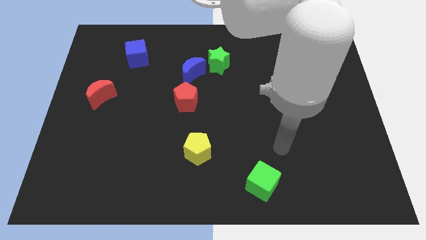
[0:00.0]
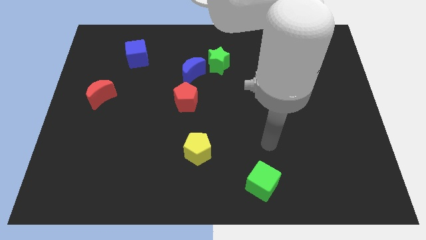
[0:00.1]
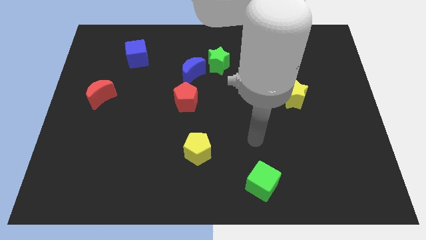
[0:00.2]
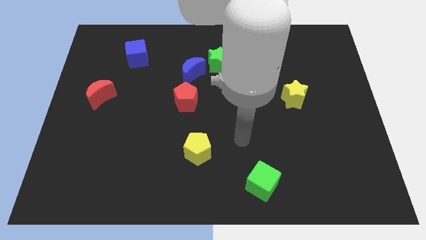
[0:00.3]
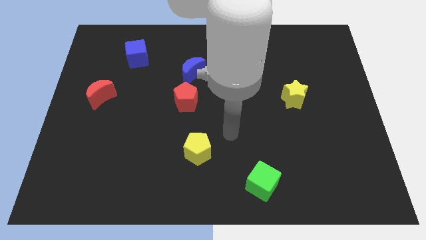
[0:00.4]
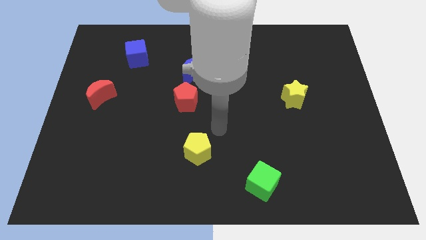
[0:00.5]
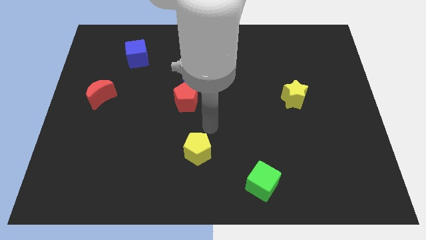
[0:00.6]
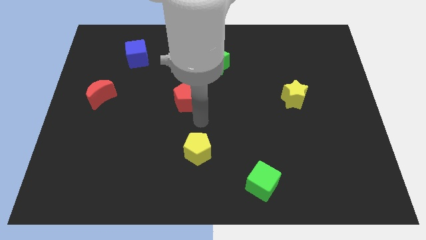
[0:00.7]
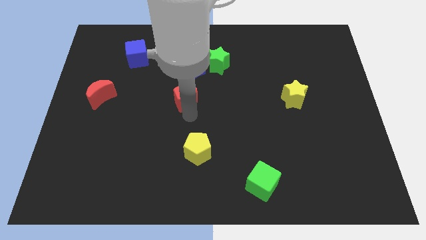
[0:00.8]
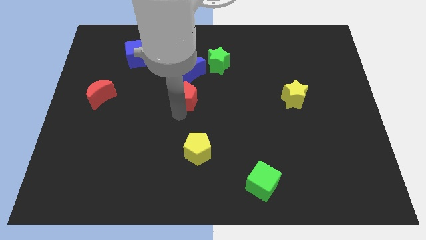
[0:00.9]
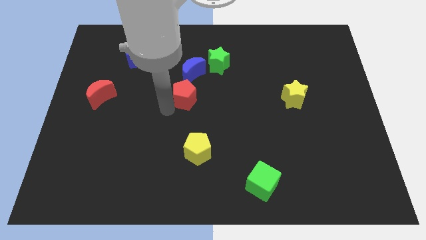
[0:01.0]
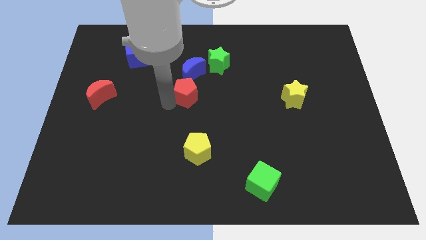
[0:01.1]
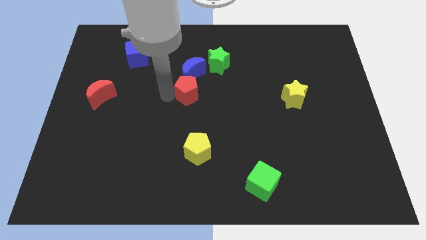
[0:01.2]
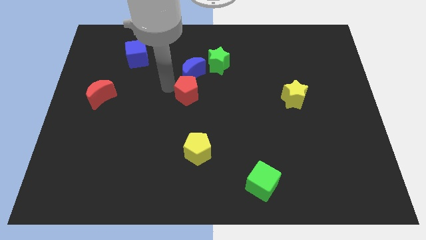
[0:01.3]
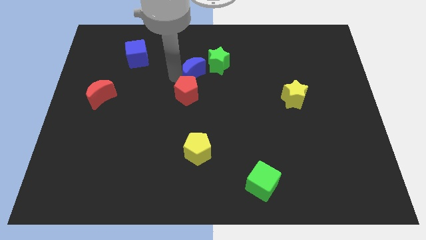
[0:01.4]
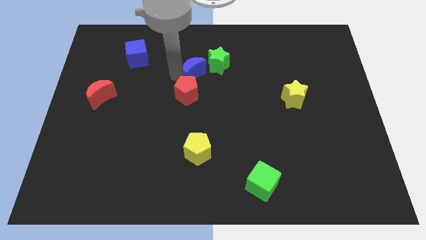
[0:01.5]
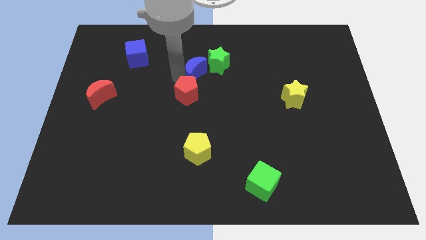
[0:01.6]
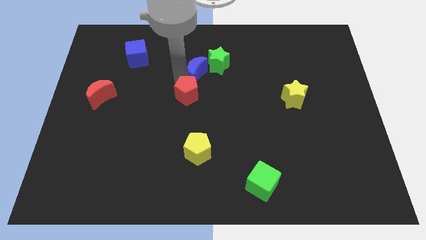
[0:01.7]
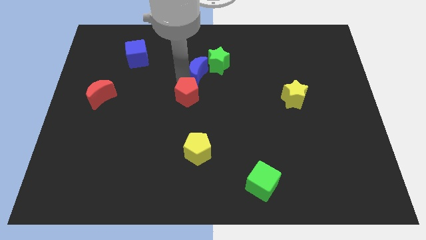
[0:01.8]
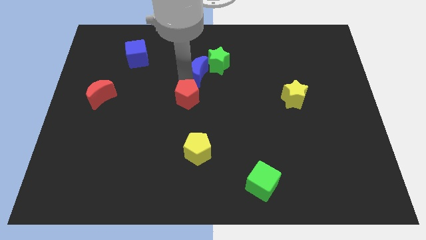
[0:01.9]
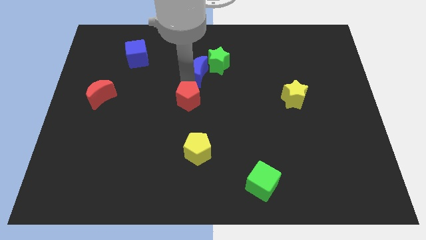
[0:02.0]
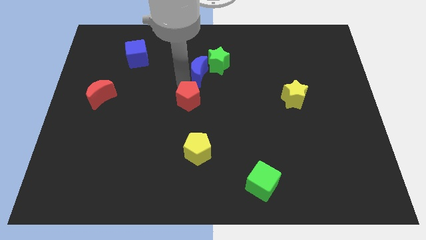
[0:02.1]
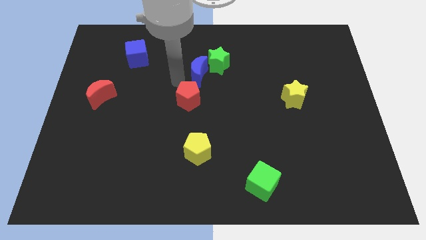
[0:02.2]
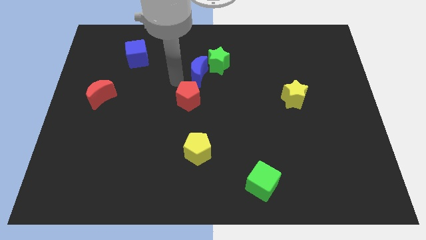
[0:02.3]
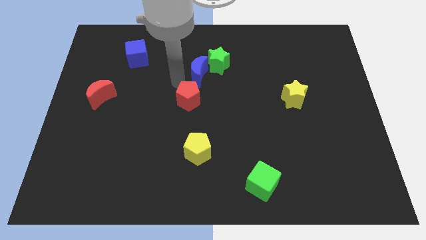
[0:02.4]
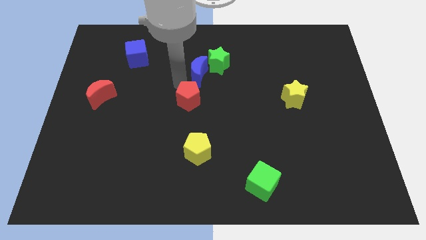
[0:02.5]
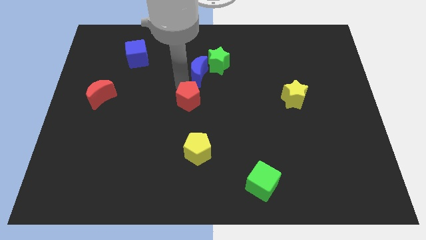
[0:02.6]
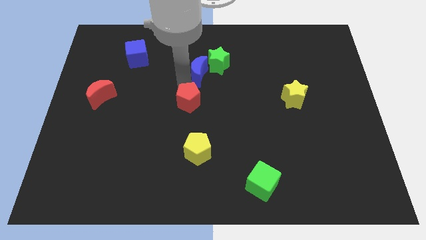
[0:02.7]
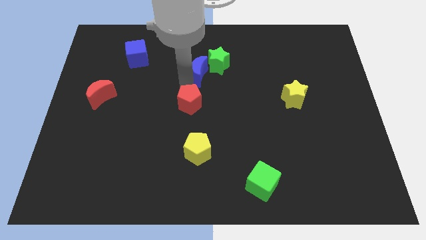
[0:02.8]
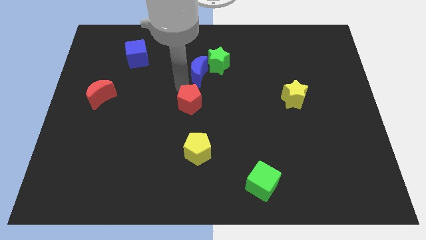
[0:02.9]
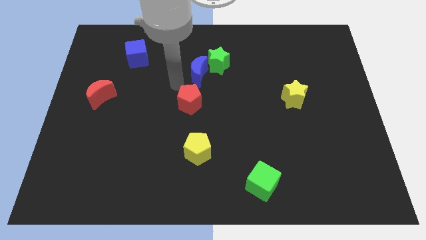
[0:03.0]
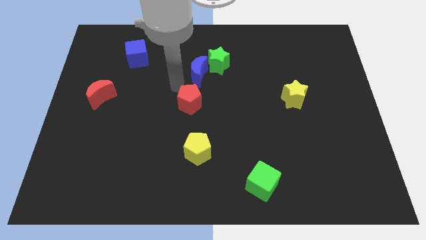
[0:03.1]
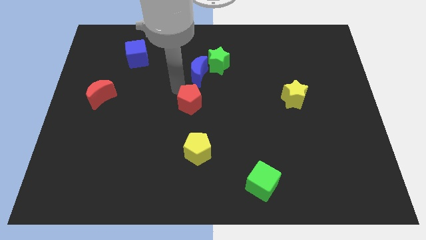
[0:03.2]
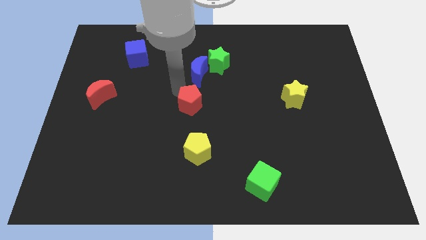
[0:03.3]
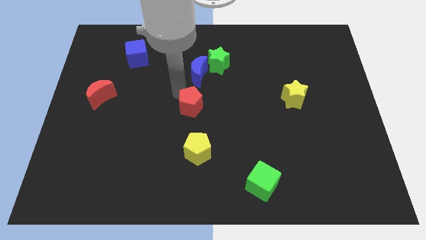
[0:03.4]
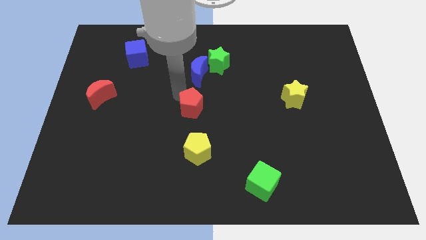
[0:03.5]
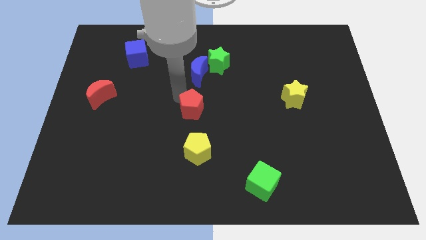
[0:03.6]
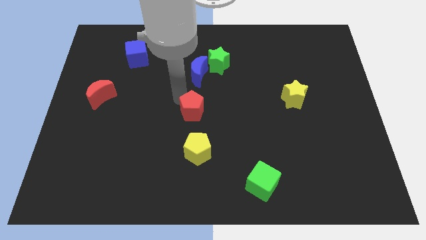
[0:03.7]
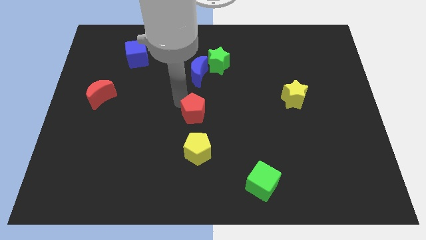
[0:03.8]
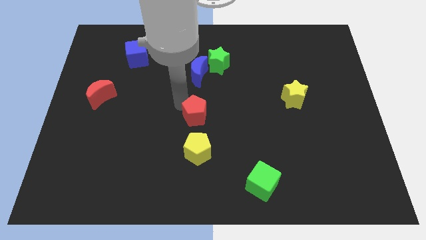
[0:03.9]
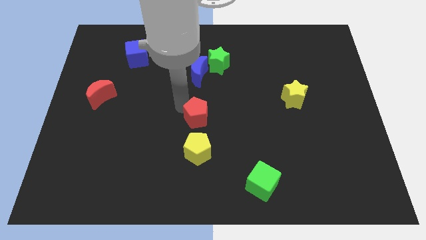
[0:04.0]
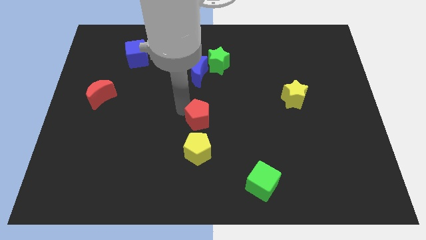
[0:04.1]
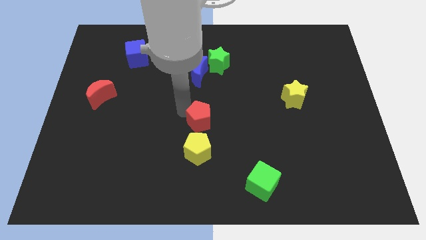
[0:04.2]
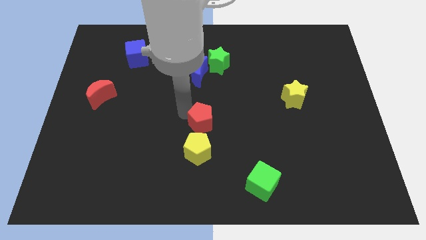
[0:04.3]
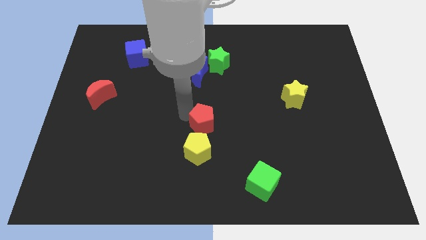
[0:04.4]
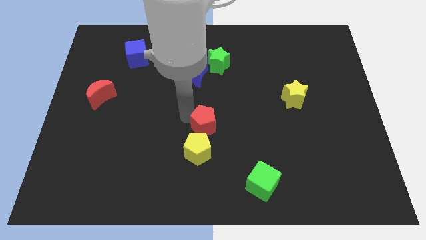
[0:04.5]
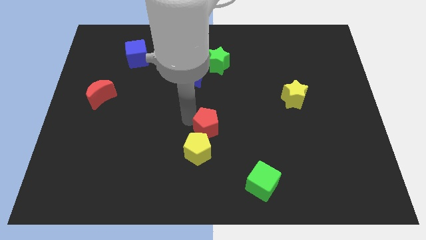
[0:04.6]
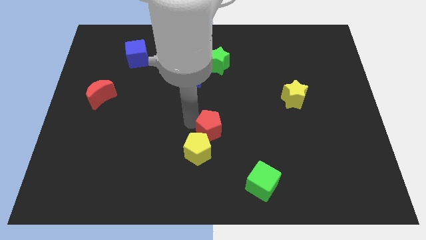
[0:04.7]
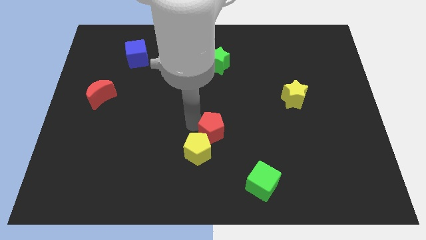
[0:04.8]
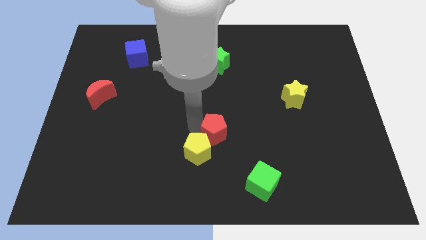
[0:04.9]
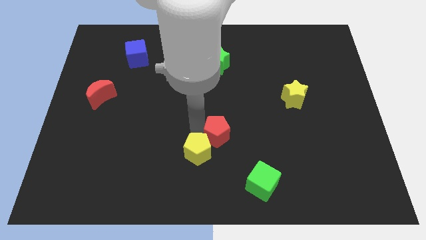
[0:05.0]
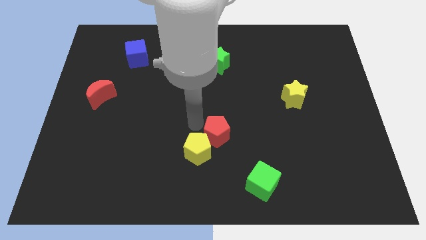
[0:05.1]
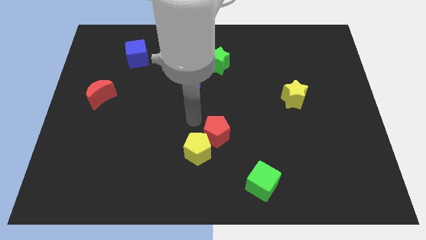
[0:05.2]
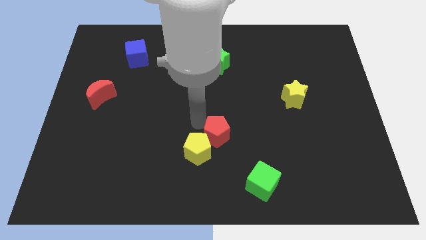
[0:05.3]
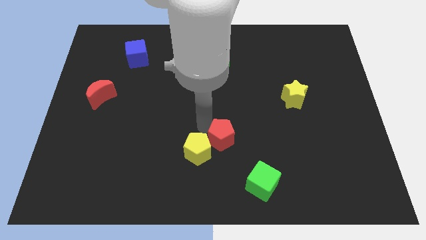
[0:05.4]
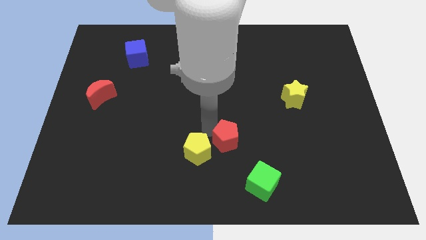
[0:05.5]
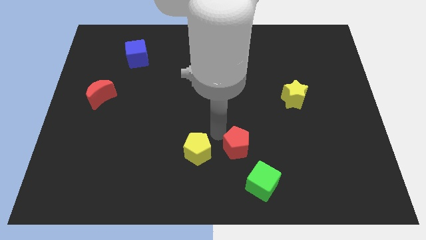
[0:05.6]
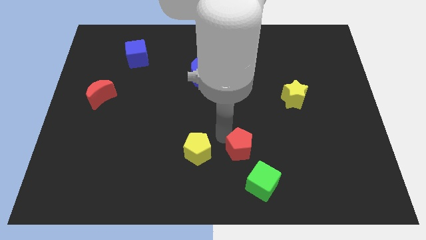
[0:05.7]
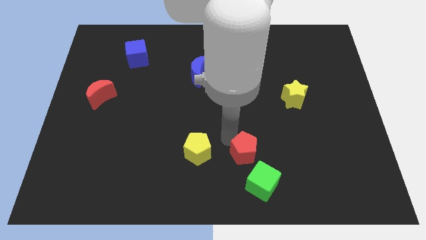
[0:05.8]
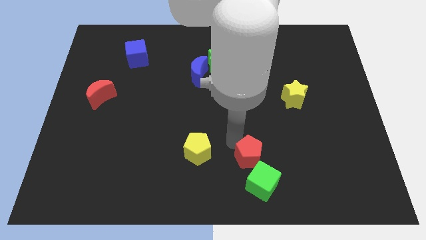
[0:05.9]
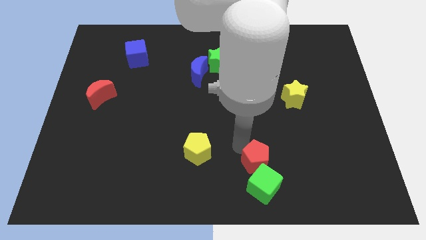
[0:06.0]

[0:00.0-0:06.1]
move the red pentagon close to the green cube
